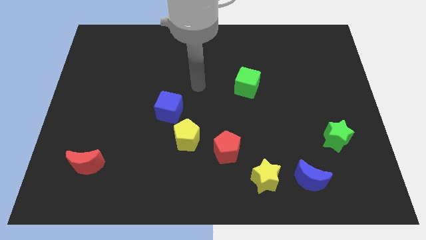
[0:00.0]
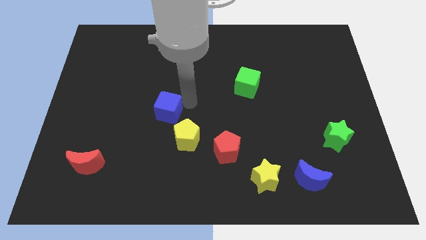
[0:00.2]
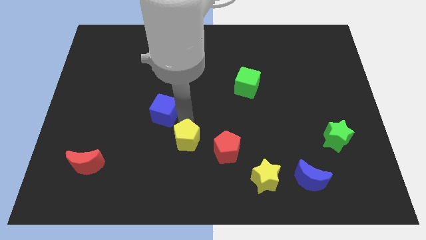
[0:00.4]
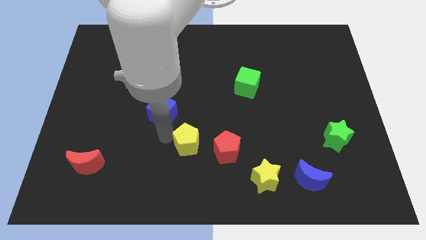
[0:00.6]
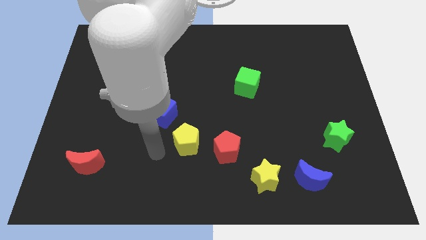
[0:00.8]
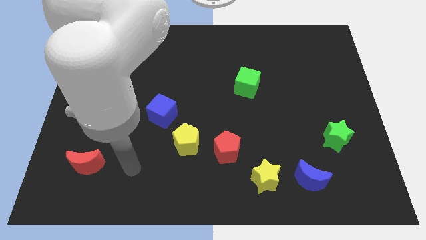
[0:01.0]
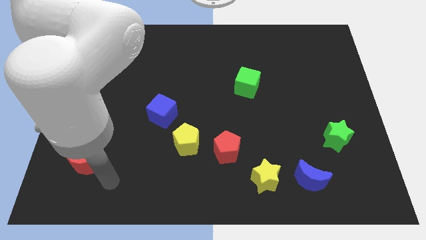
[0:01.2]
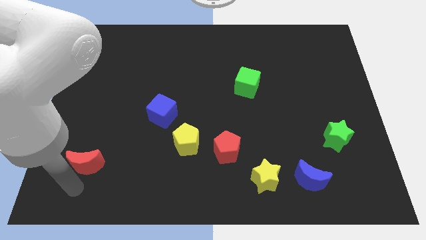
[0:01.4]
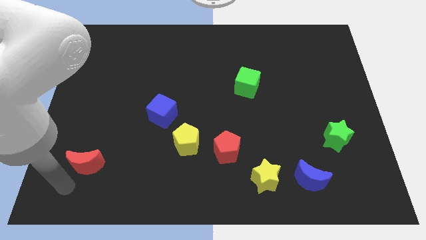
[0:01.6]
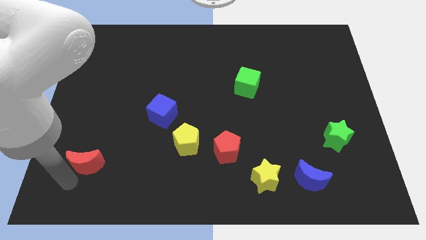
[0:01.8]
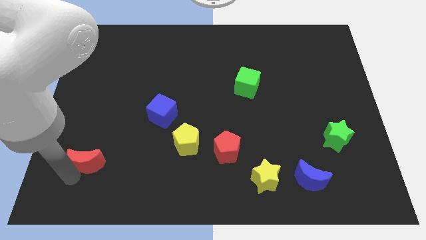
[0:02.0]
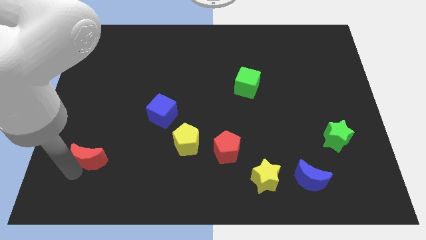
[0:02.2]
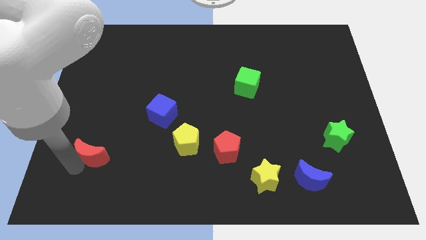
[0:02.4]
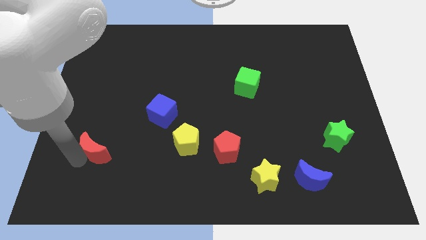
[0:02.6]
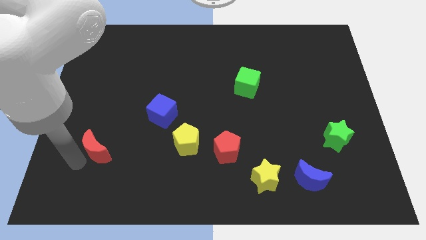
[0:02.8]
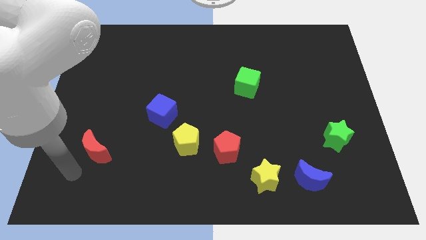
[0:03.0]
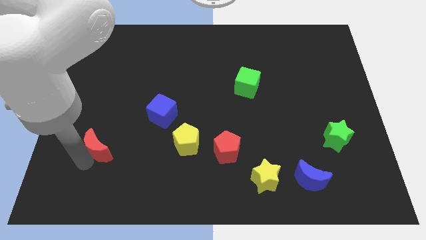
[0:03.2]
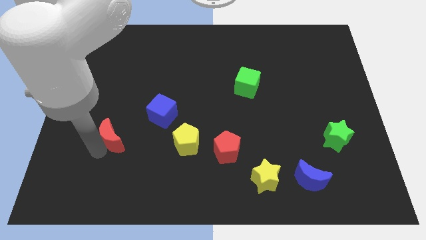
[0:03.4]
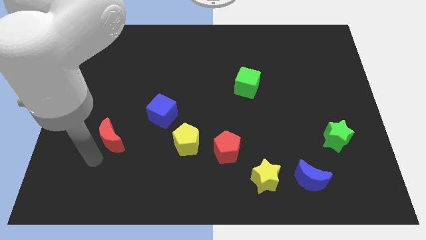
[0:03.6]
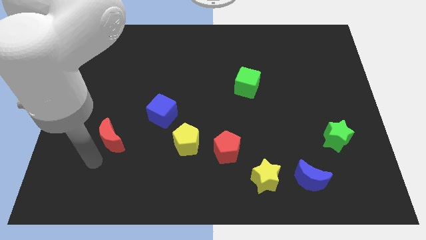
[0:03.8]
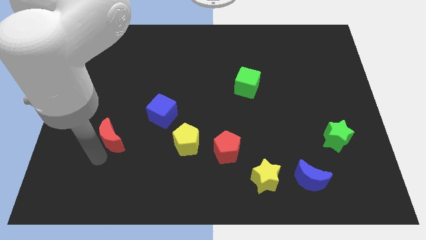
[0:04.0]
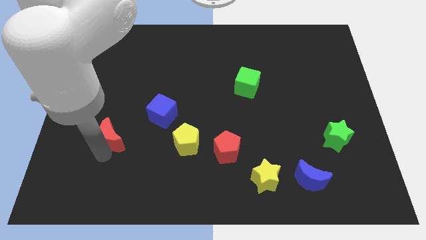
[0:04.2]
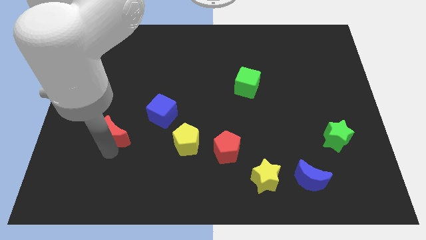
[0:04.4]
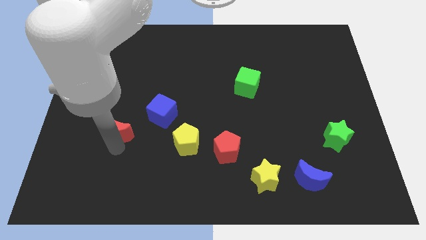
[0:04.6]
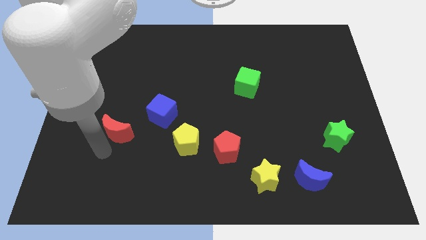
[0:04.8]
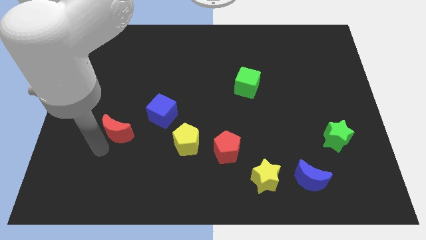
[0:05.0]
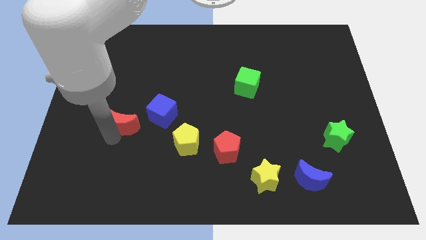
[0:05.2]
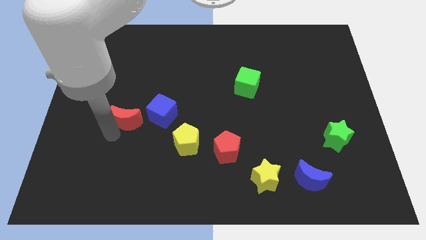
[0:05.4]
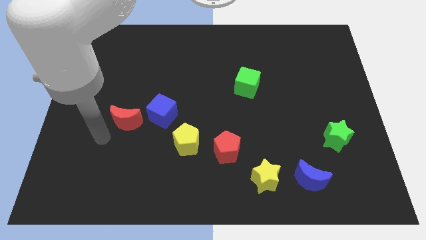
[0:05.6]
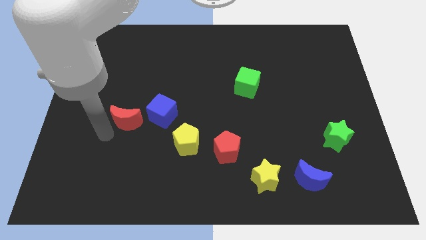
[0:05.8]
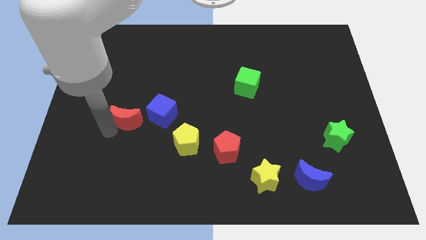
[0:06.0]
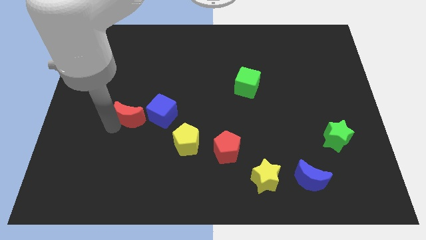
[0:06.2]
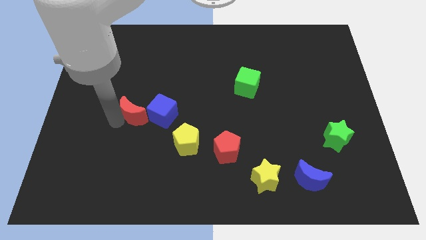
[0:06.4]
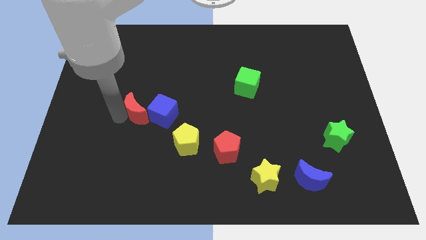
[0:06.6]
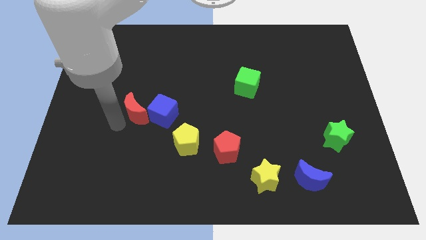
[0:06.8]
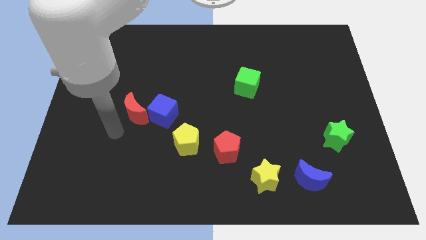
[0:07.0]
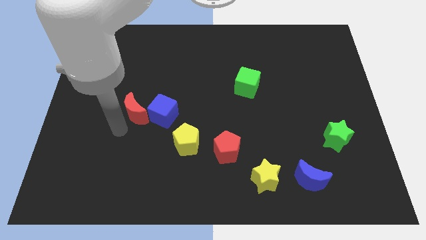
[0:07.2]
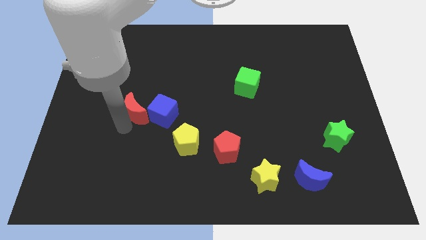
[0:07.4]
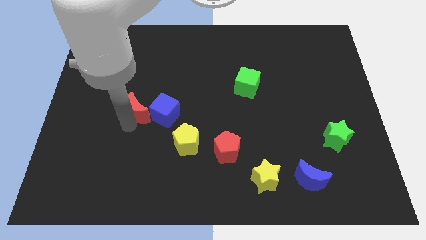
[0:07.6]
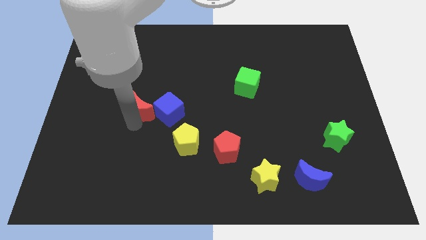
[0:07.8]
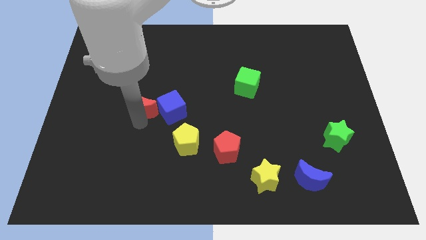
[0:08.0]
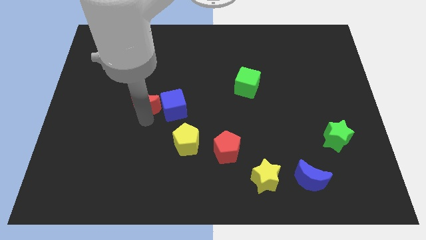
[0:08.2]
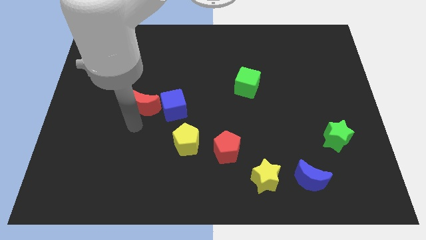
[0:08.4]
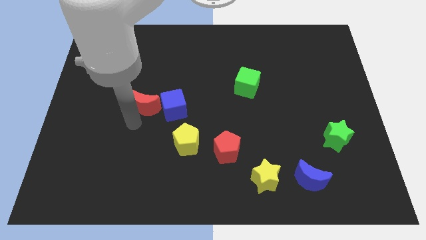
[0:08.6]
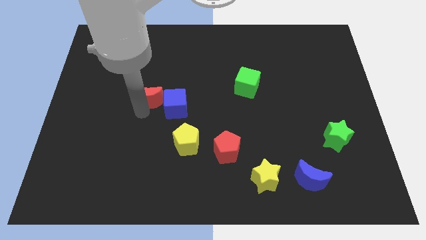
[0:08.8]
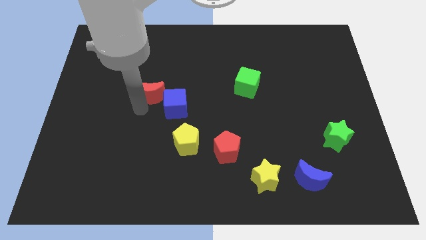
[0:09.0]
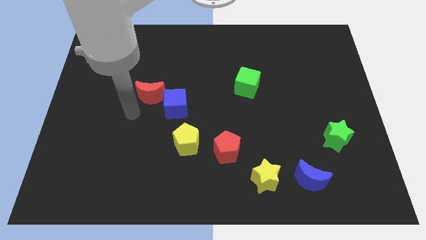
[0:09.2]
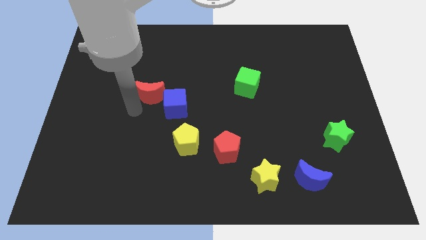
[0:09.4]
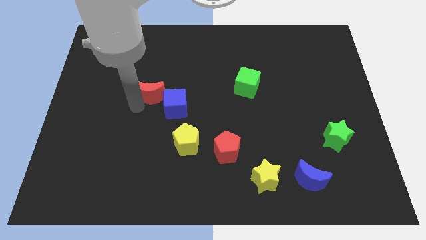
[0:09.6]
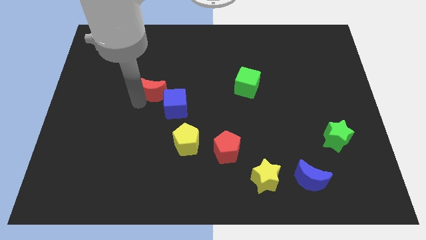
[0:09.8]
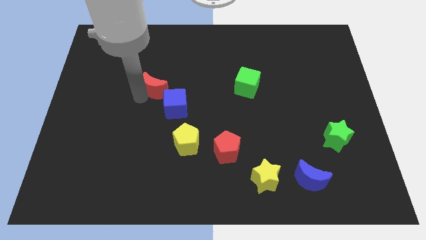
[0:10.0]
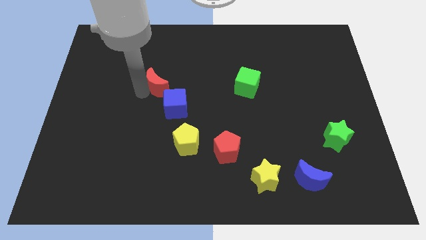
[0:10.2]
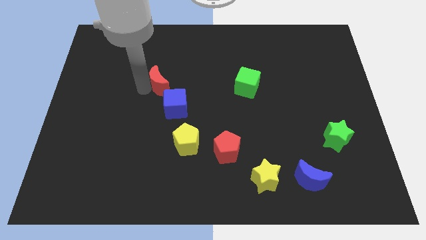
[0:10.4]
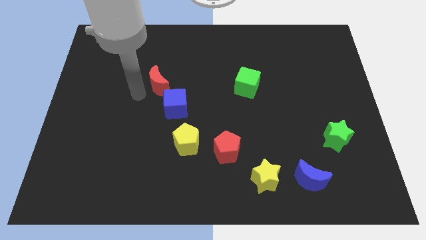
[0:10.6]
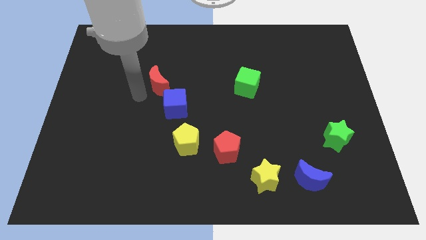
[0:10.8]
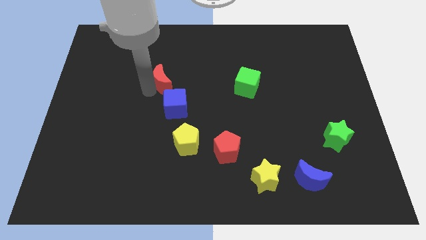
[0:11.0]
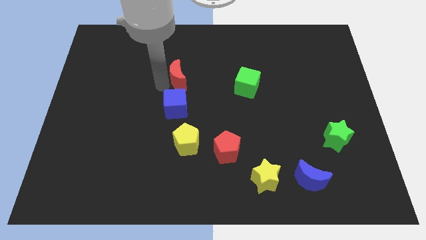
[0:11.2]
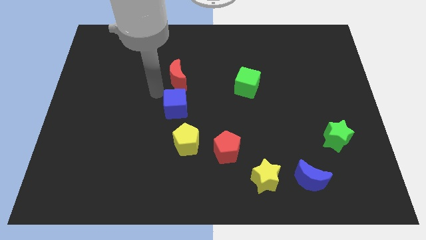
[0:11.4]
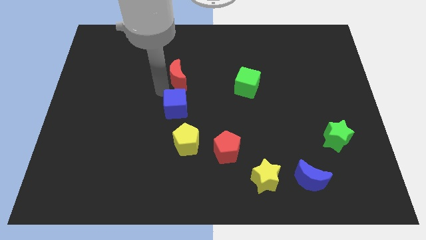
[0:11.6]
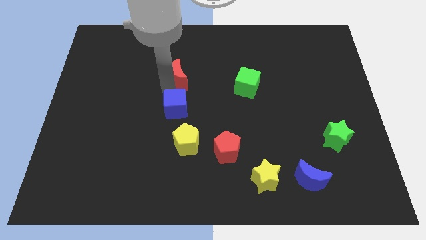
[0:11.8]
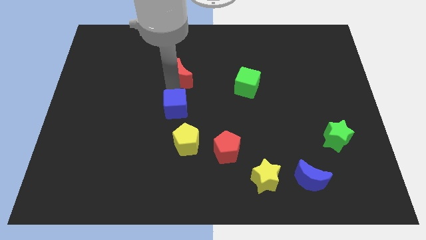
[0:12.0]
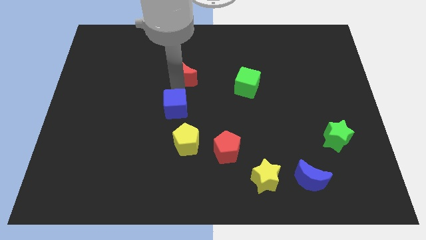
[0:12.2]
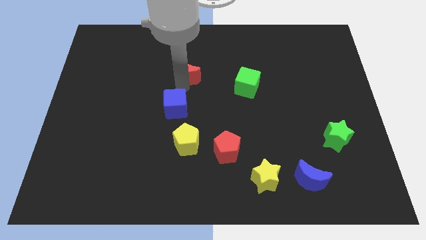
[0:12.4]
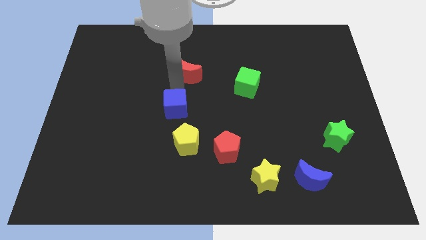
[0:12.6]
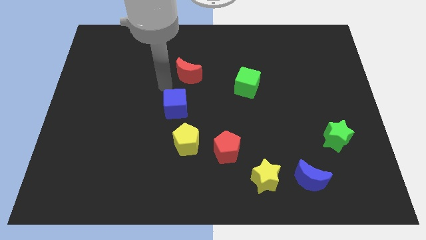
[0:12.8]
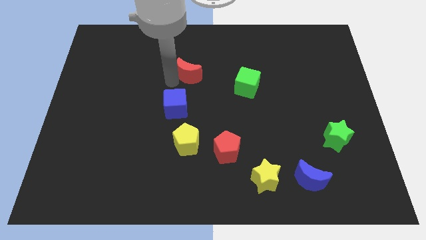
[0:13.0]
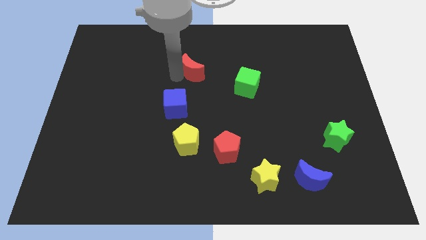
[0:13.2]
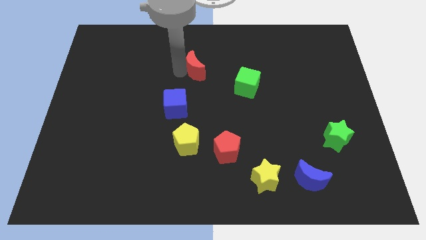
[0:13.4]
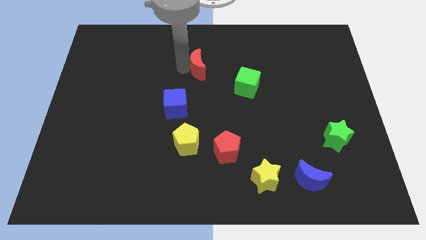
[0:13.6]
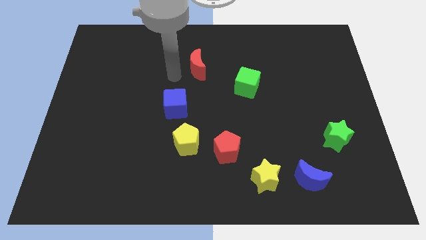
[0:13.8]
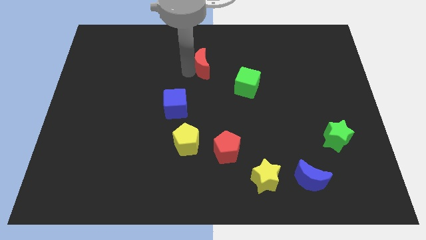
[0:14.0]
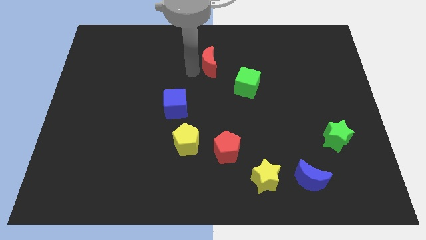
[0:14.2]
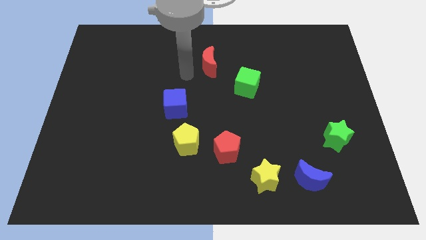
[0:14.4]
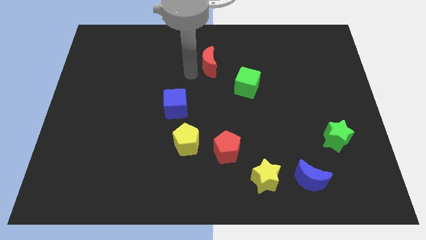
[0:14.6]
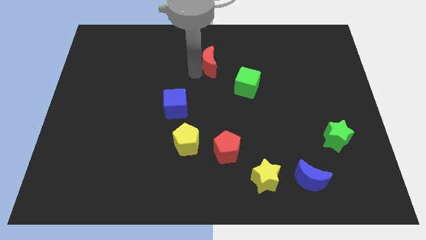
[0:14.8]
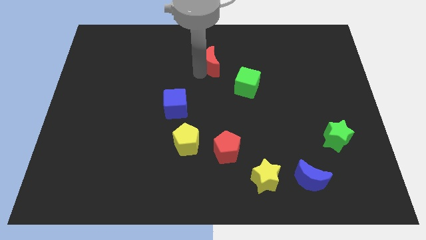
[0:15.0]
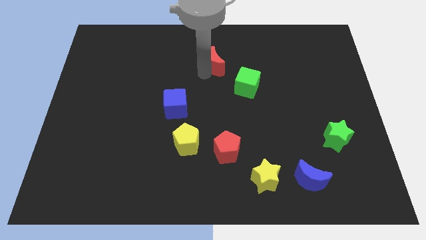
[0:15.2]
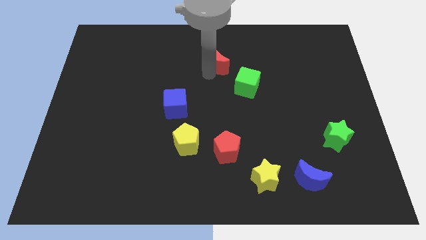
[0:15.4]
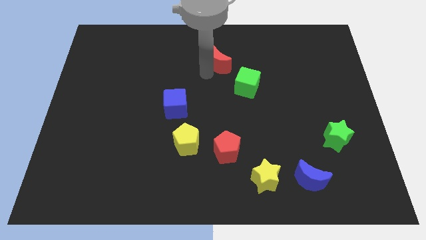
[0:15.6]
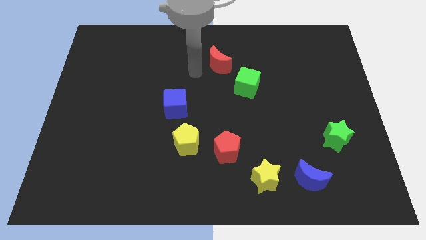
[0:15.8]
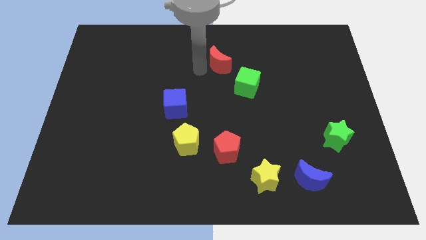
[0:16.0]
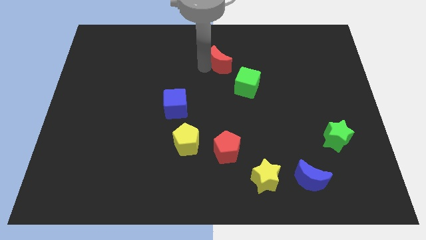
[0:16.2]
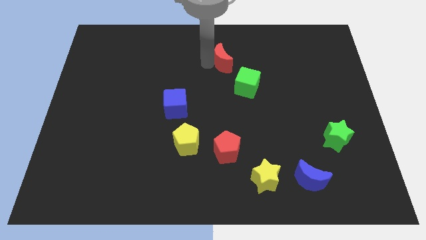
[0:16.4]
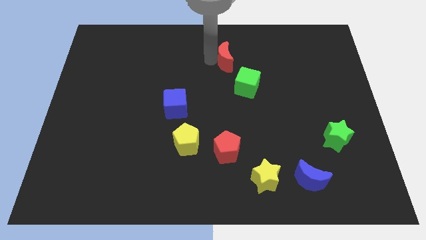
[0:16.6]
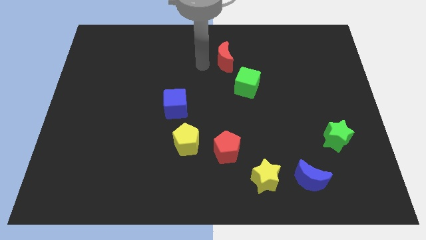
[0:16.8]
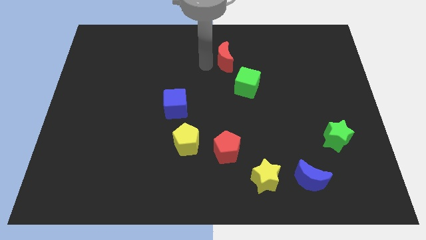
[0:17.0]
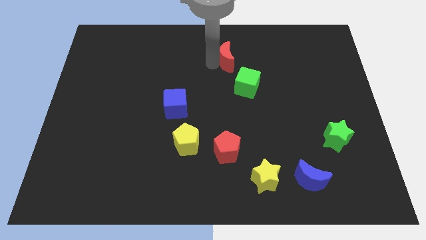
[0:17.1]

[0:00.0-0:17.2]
push the red moon above the green cube
